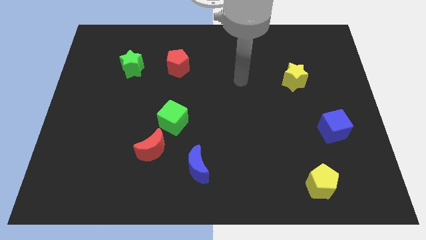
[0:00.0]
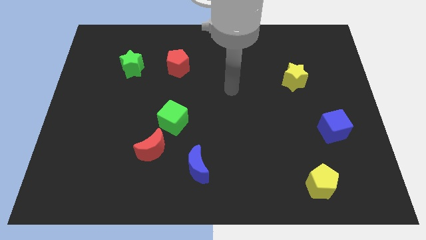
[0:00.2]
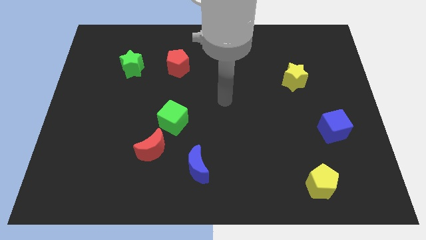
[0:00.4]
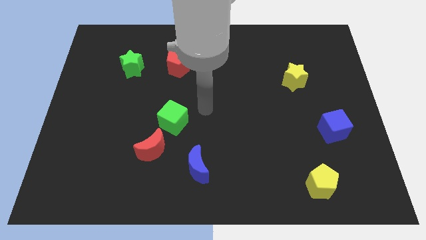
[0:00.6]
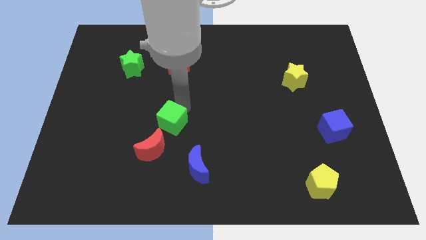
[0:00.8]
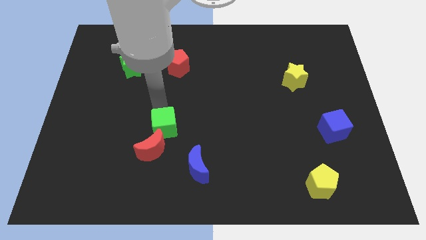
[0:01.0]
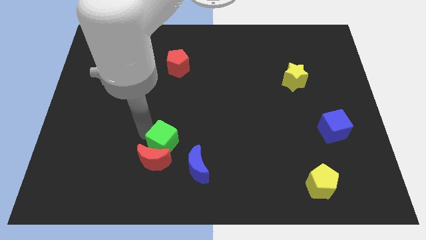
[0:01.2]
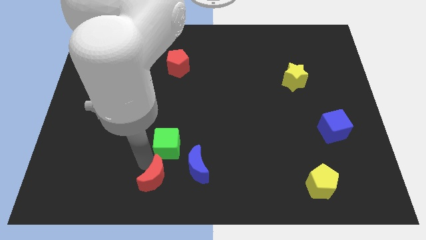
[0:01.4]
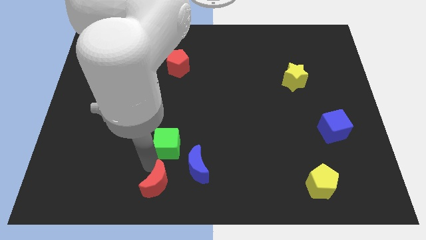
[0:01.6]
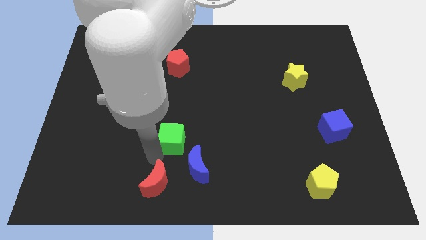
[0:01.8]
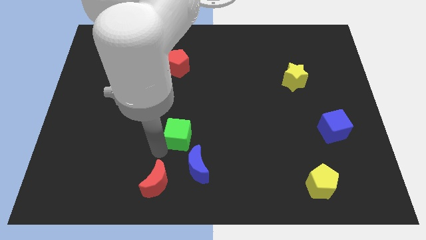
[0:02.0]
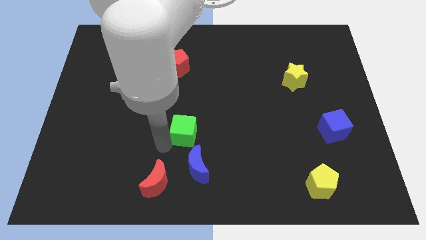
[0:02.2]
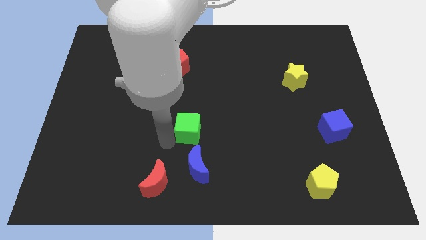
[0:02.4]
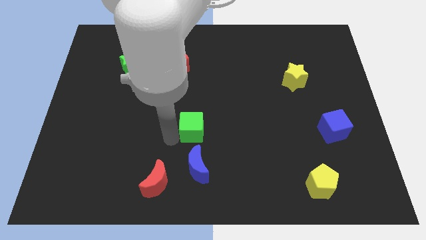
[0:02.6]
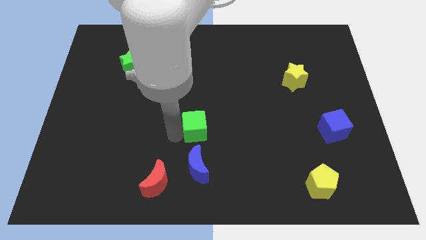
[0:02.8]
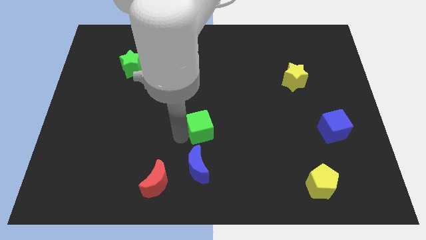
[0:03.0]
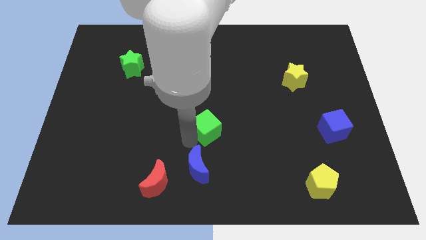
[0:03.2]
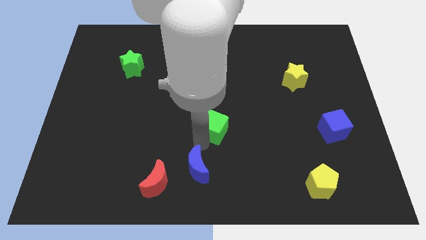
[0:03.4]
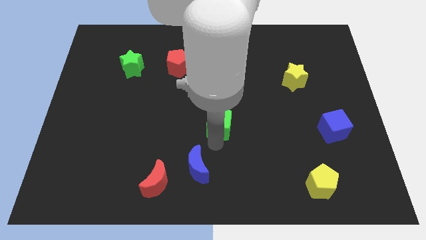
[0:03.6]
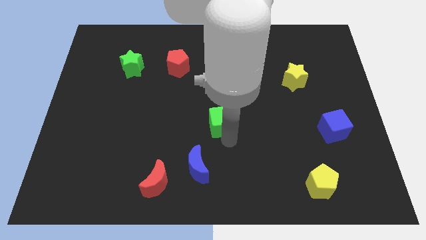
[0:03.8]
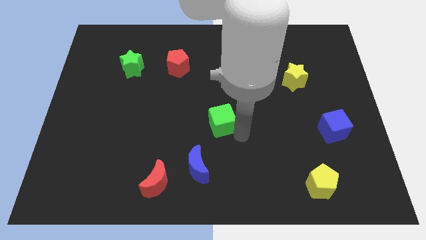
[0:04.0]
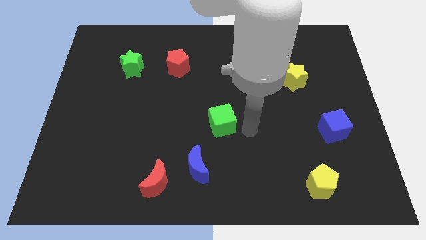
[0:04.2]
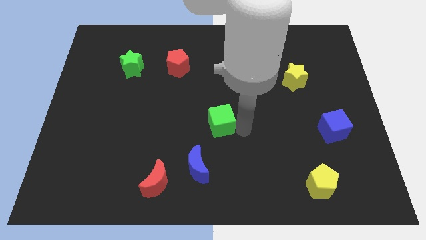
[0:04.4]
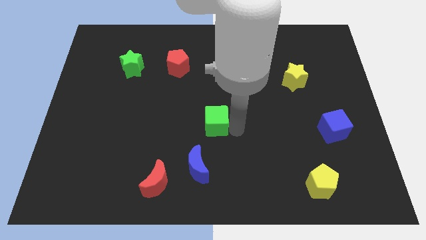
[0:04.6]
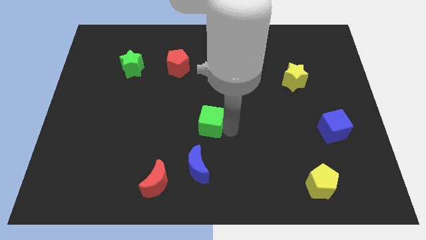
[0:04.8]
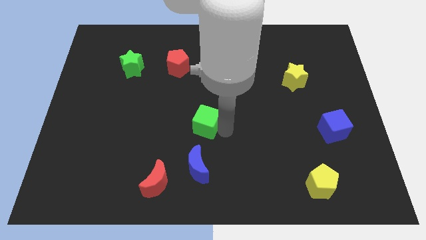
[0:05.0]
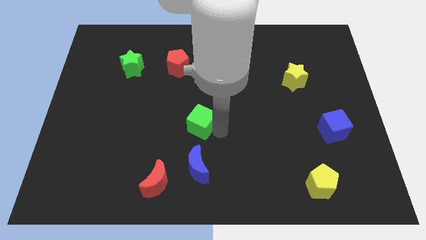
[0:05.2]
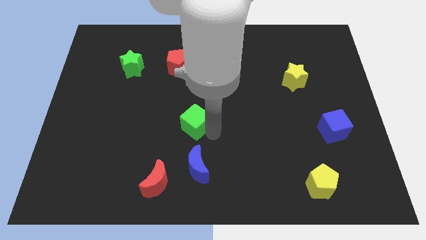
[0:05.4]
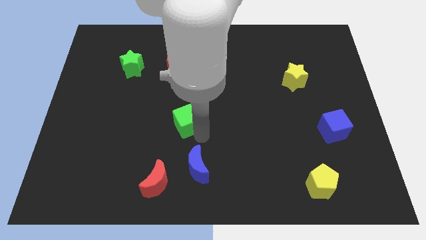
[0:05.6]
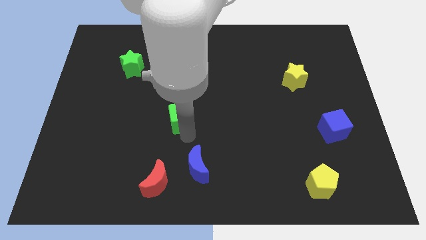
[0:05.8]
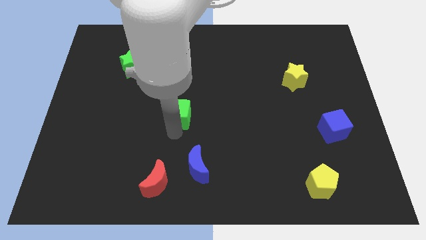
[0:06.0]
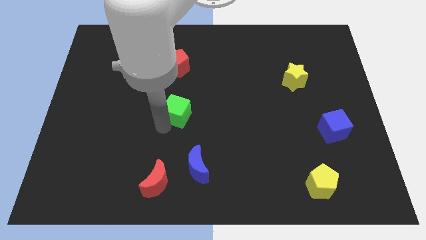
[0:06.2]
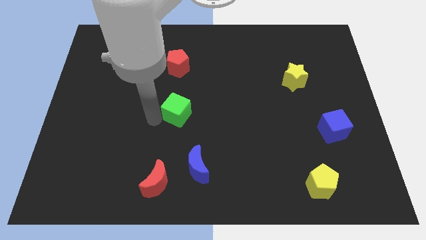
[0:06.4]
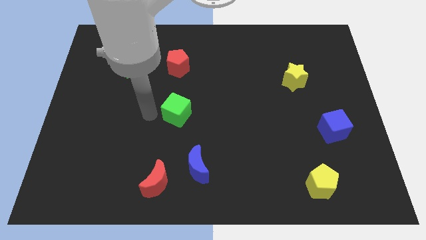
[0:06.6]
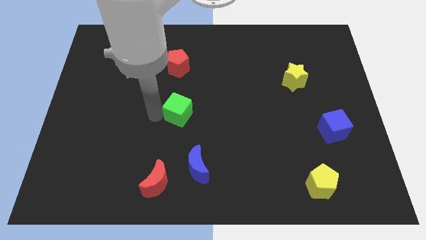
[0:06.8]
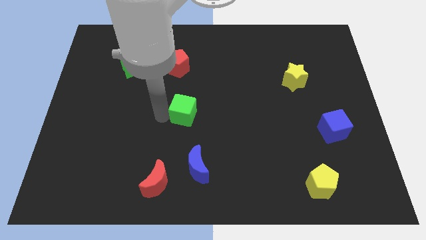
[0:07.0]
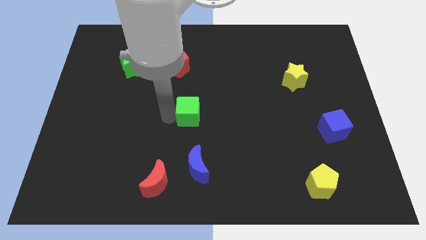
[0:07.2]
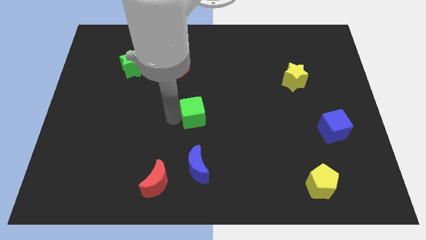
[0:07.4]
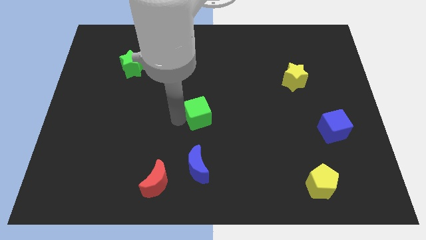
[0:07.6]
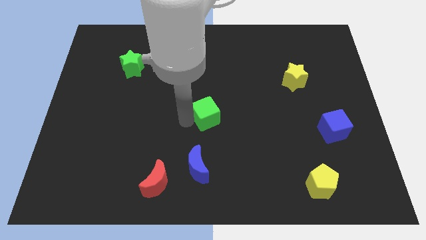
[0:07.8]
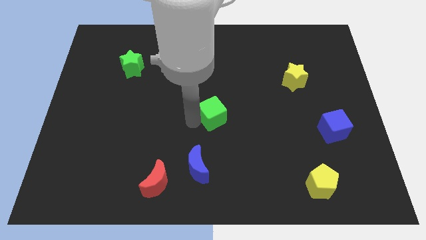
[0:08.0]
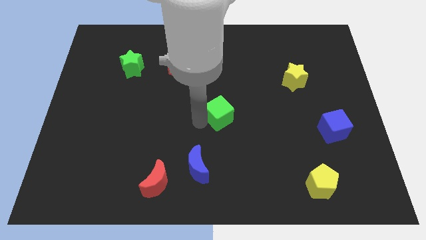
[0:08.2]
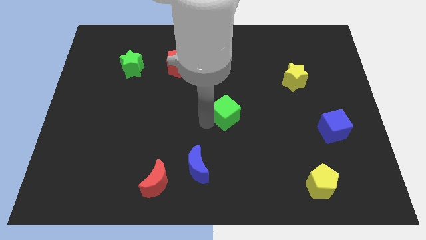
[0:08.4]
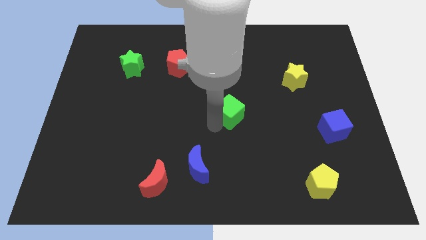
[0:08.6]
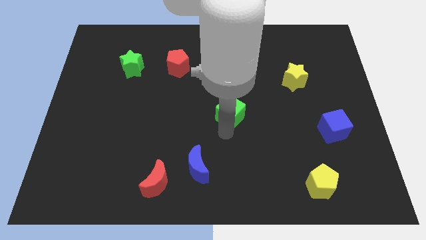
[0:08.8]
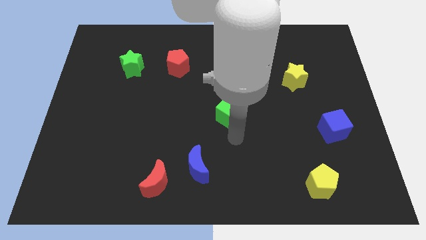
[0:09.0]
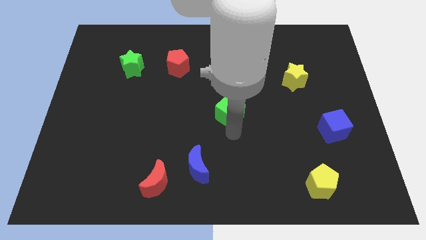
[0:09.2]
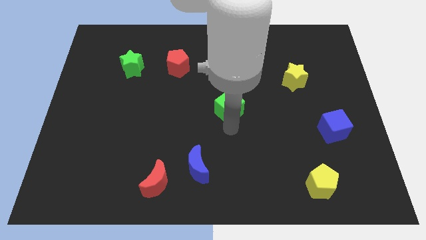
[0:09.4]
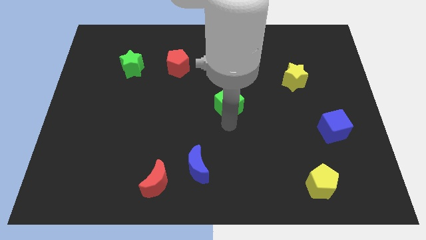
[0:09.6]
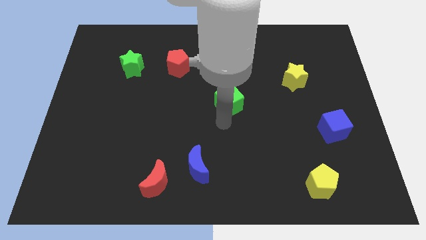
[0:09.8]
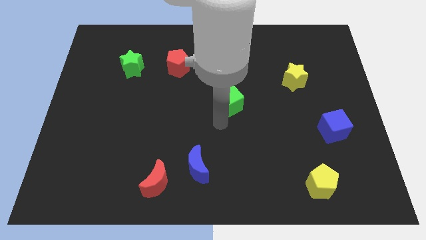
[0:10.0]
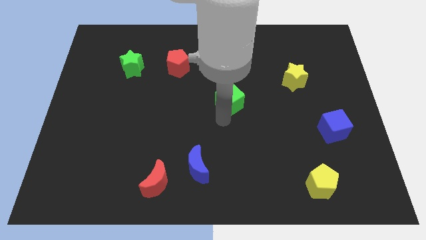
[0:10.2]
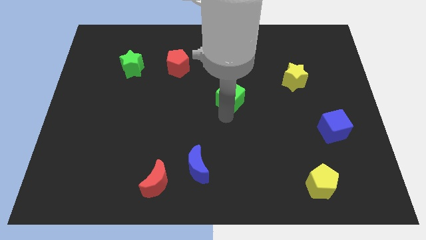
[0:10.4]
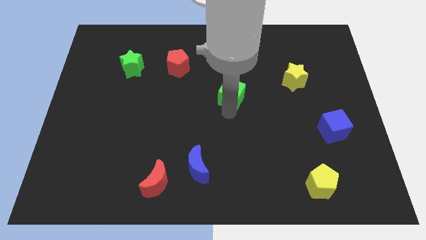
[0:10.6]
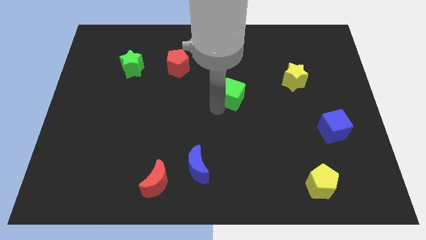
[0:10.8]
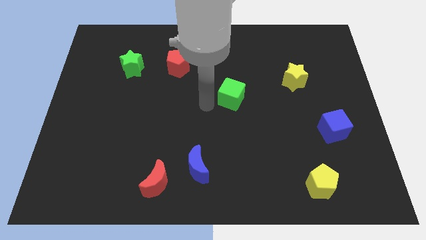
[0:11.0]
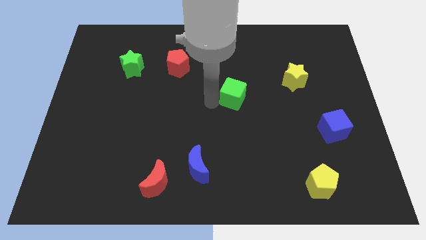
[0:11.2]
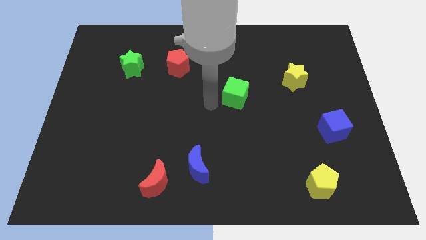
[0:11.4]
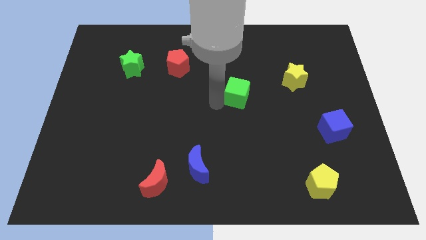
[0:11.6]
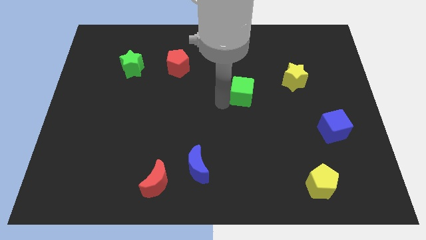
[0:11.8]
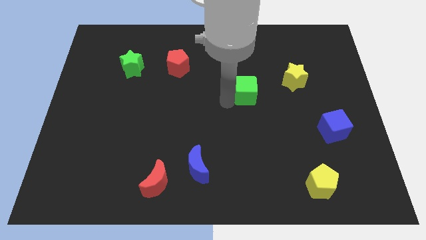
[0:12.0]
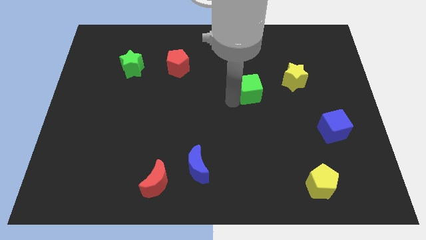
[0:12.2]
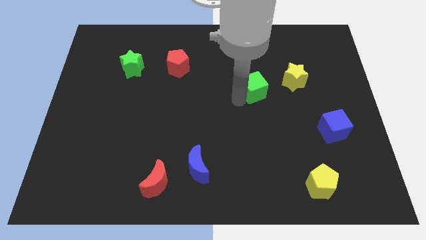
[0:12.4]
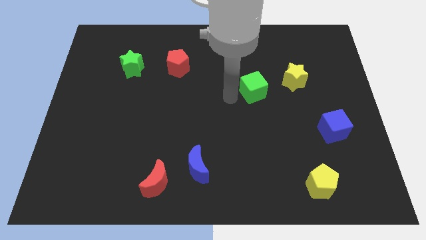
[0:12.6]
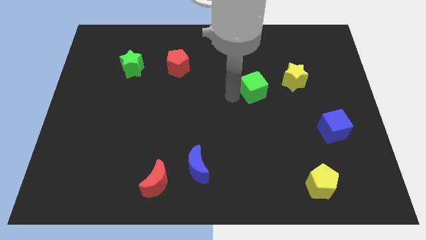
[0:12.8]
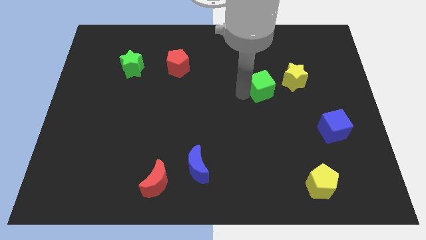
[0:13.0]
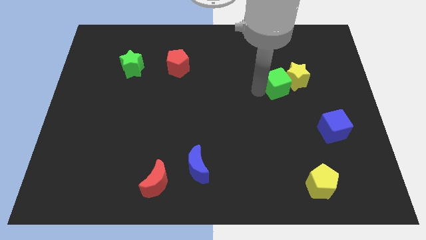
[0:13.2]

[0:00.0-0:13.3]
put the green cube next to the yellow star

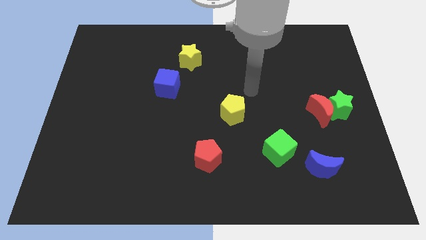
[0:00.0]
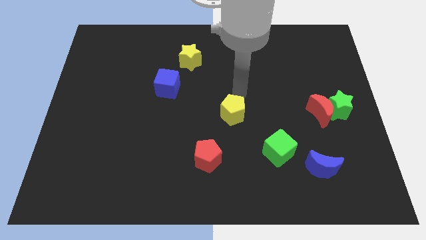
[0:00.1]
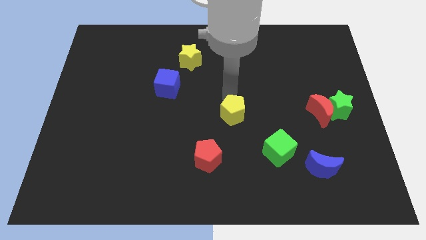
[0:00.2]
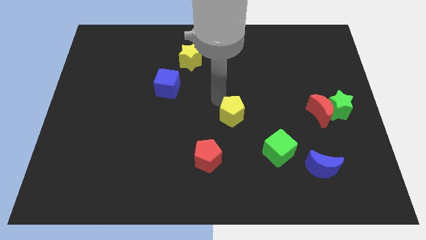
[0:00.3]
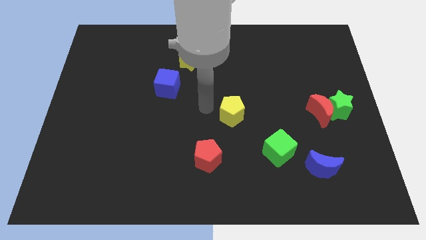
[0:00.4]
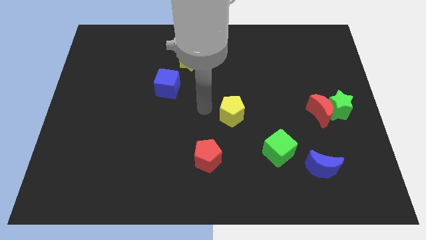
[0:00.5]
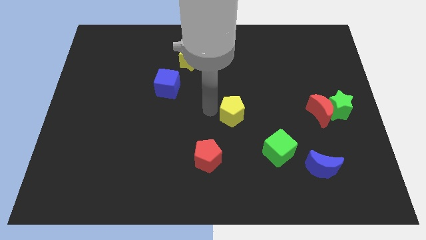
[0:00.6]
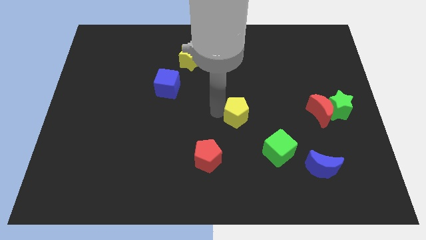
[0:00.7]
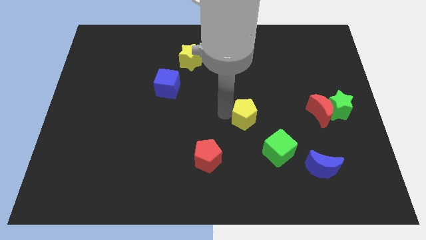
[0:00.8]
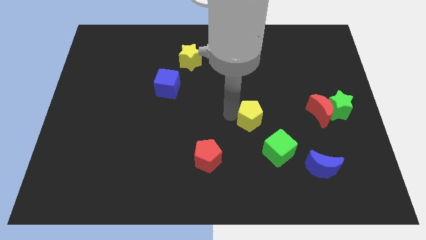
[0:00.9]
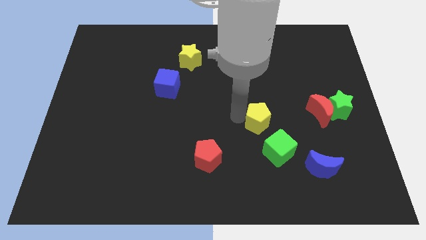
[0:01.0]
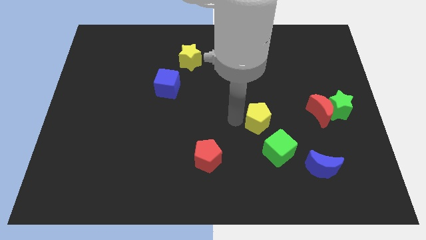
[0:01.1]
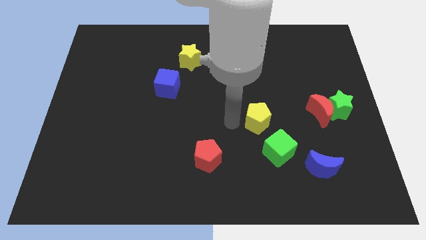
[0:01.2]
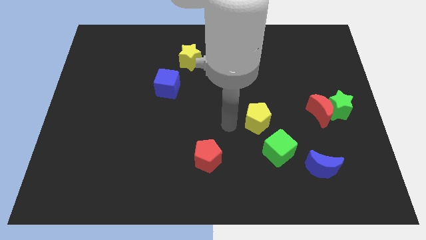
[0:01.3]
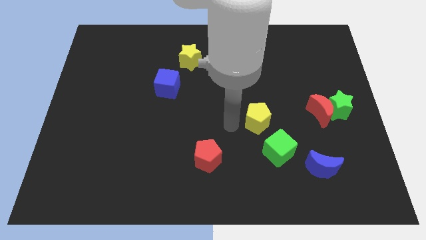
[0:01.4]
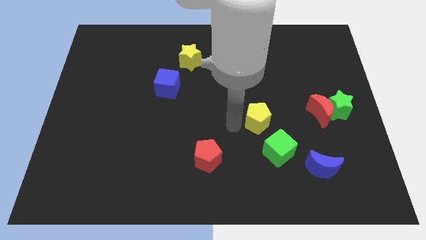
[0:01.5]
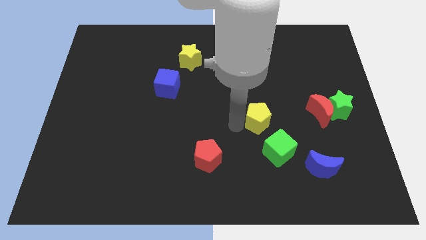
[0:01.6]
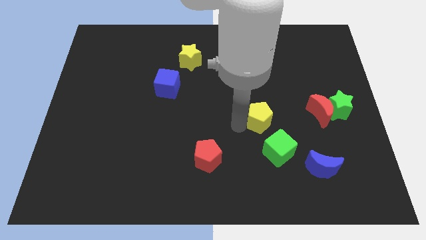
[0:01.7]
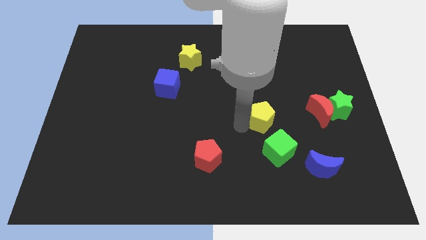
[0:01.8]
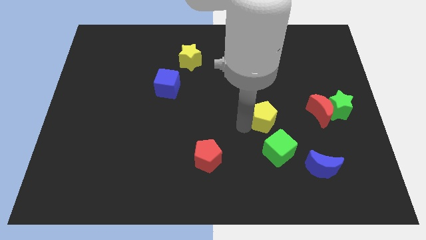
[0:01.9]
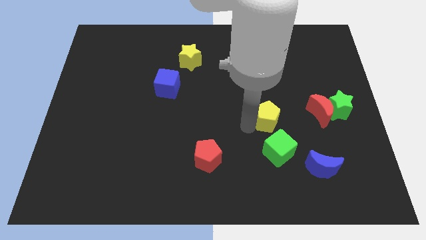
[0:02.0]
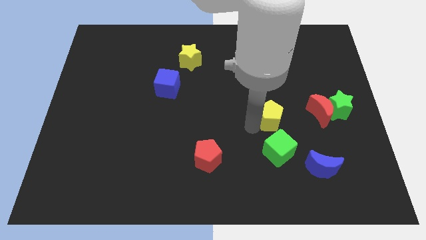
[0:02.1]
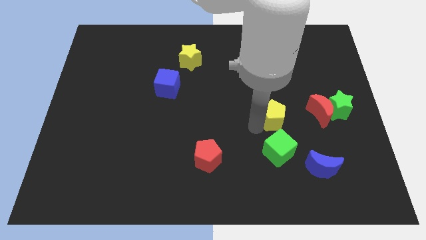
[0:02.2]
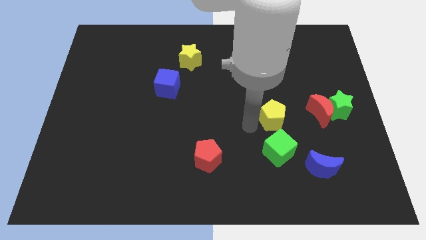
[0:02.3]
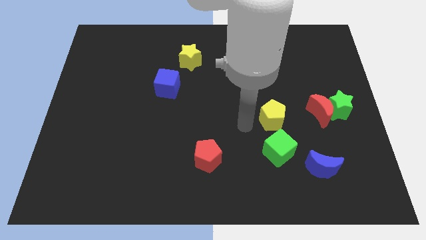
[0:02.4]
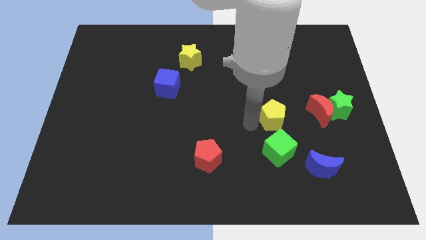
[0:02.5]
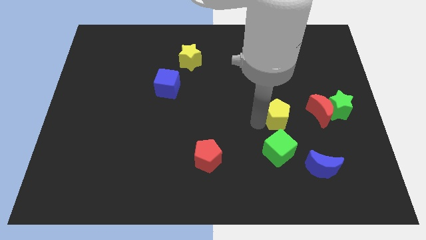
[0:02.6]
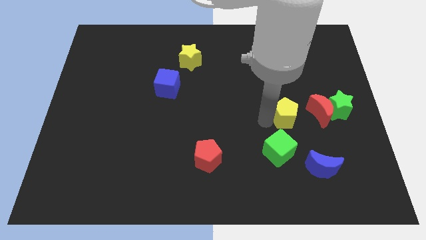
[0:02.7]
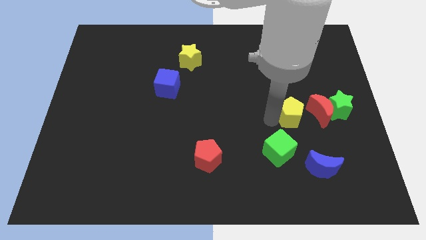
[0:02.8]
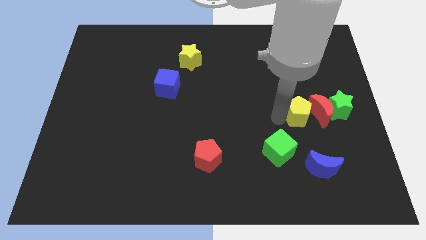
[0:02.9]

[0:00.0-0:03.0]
put the yellow pentagon close to the red moon
